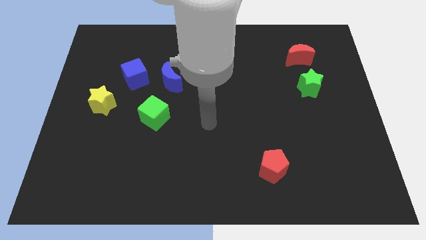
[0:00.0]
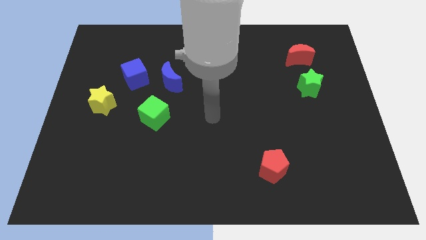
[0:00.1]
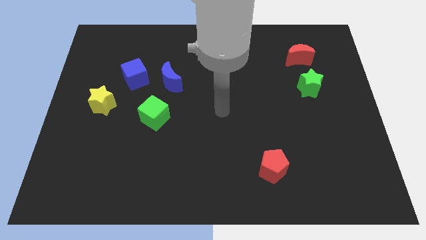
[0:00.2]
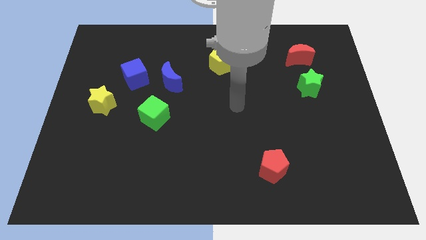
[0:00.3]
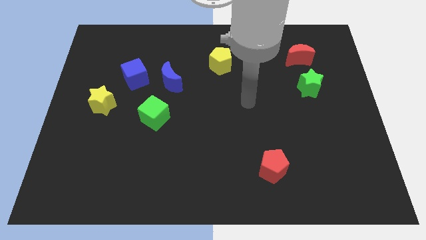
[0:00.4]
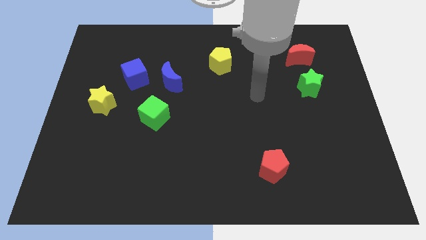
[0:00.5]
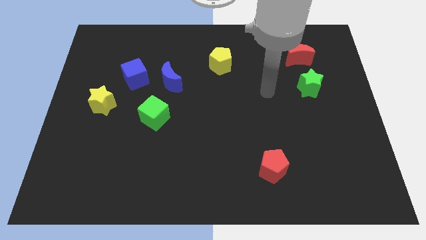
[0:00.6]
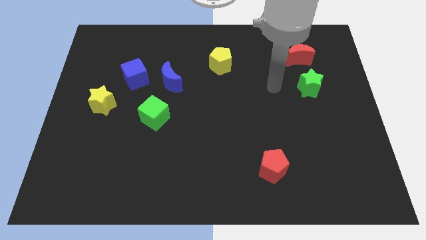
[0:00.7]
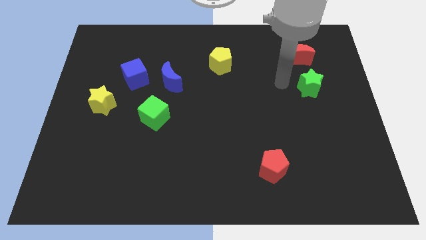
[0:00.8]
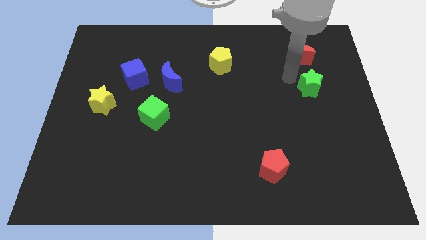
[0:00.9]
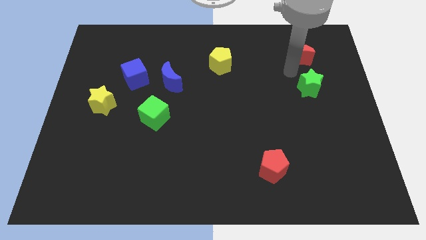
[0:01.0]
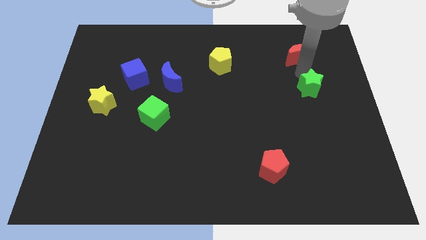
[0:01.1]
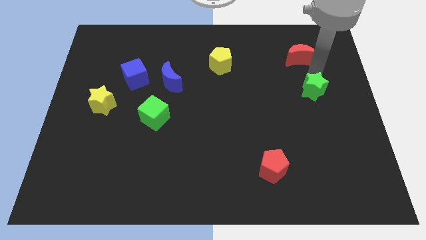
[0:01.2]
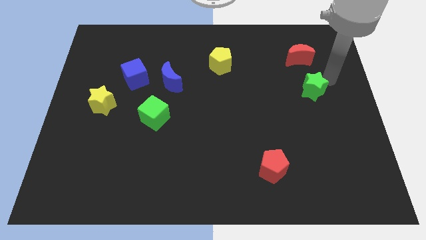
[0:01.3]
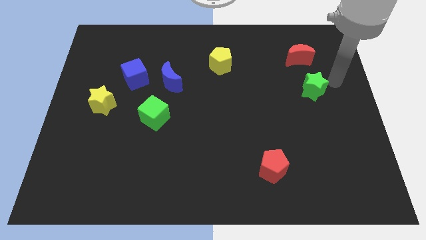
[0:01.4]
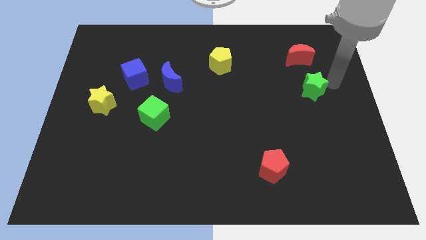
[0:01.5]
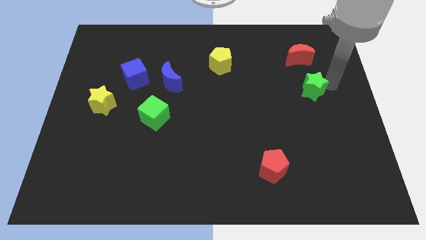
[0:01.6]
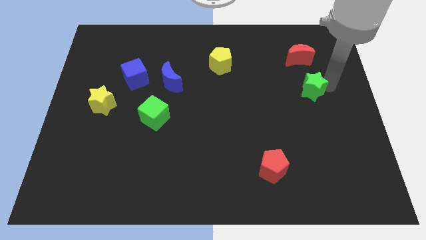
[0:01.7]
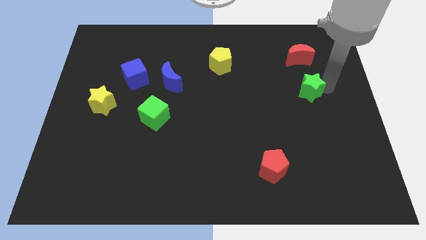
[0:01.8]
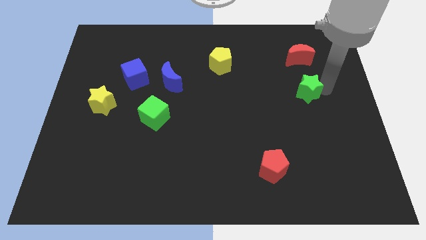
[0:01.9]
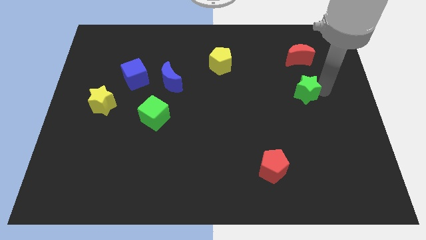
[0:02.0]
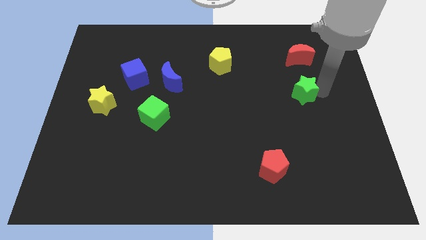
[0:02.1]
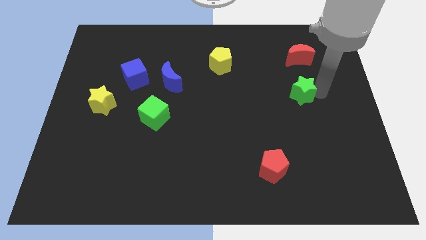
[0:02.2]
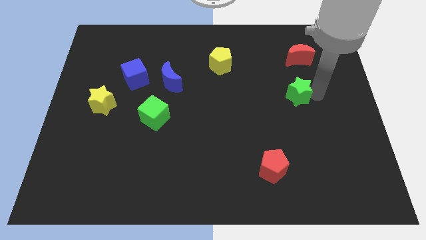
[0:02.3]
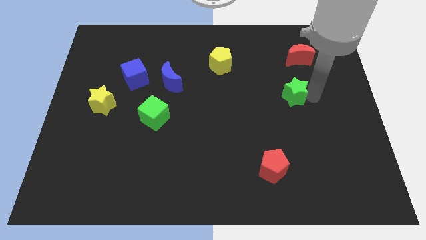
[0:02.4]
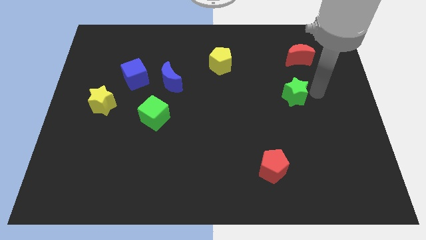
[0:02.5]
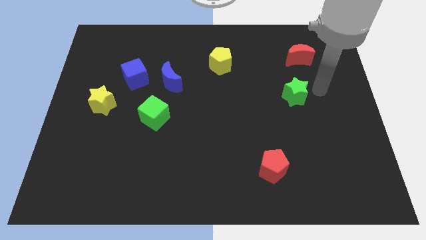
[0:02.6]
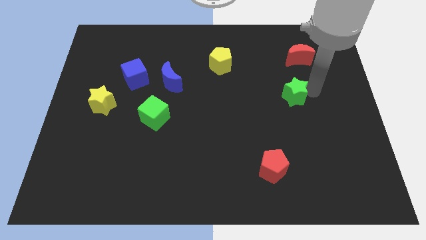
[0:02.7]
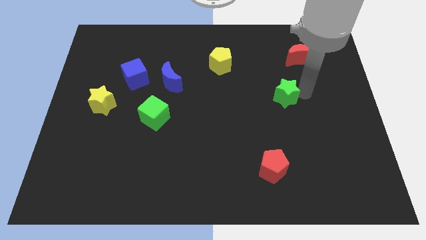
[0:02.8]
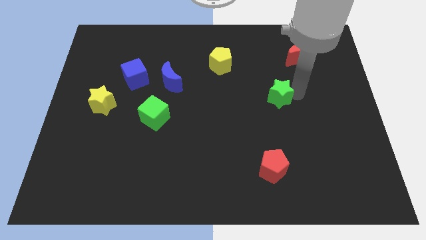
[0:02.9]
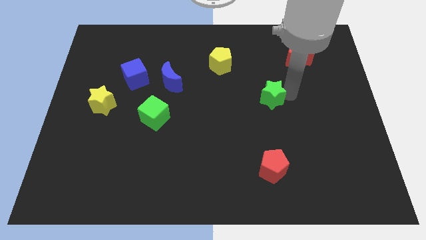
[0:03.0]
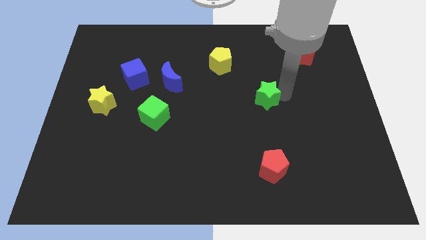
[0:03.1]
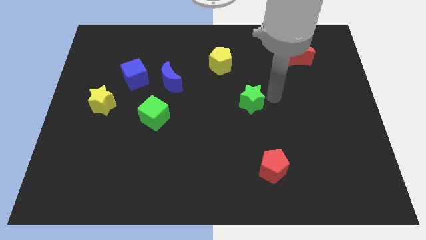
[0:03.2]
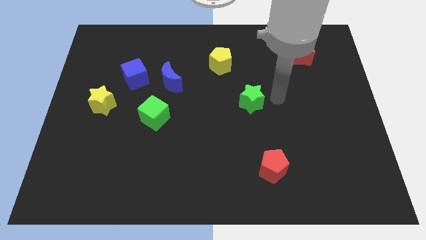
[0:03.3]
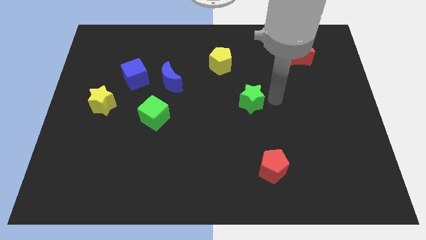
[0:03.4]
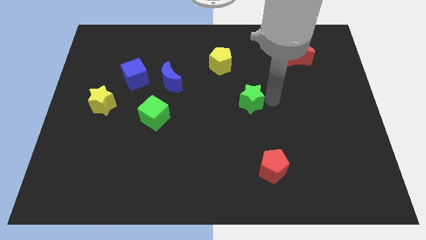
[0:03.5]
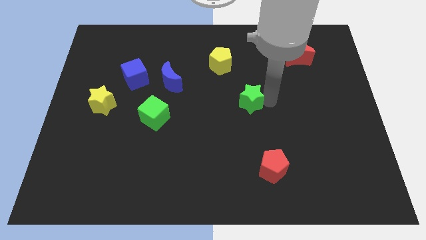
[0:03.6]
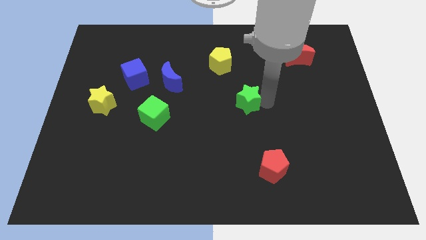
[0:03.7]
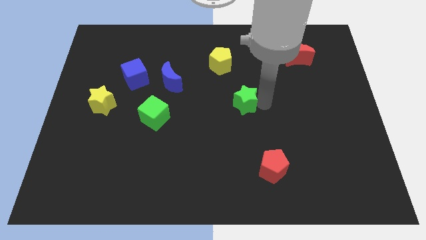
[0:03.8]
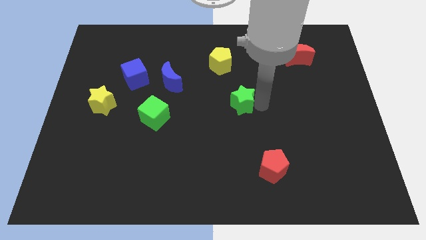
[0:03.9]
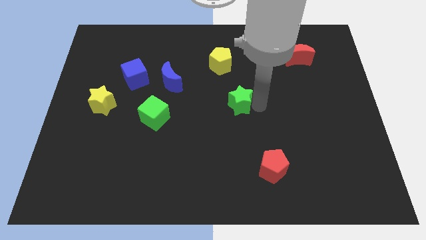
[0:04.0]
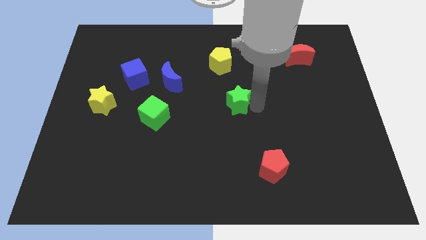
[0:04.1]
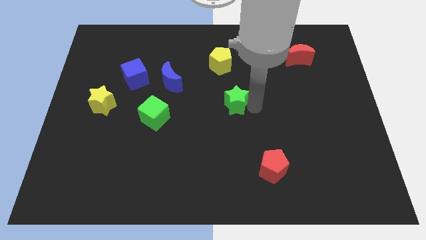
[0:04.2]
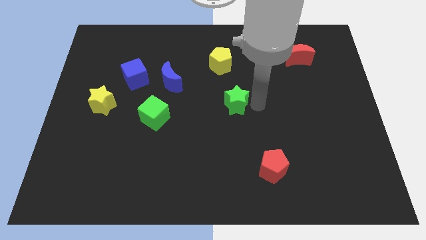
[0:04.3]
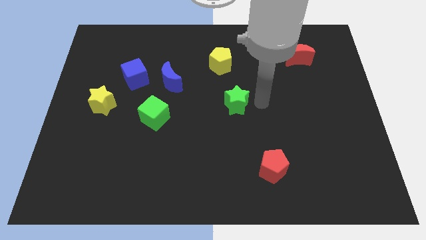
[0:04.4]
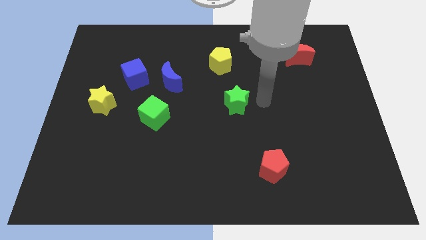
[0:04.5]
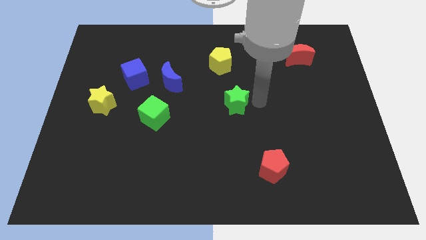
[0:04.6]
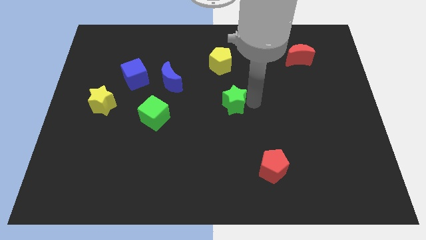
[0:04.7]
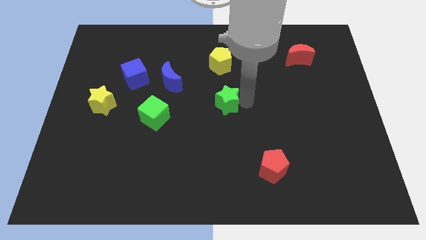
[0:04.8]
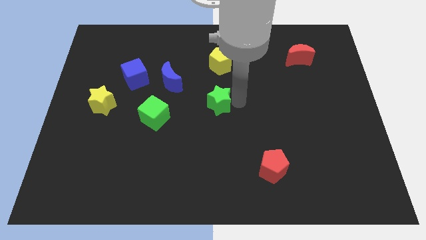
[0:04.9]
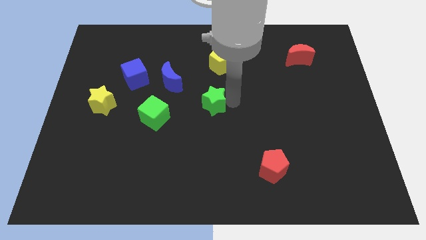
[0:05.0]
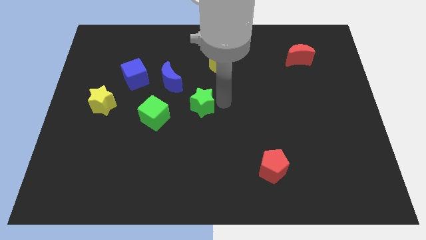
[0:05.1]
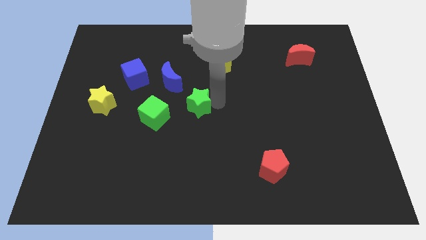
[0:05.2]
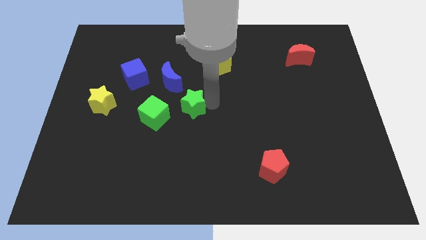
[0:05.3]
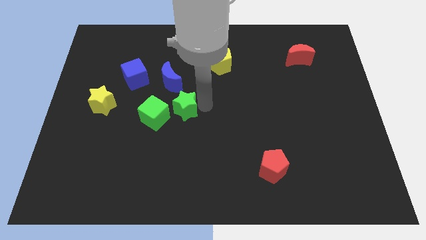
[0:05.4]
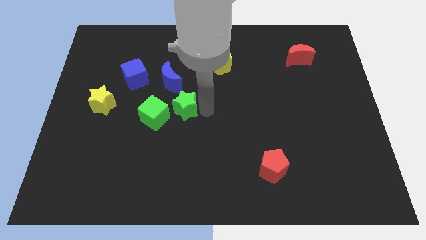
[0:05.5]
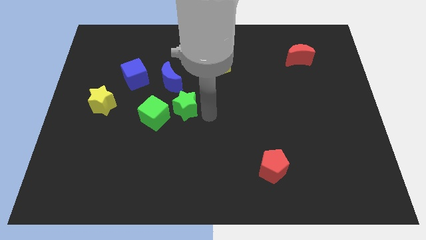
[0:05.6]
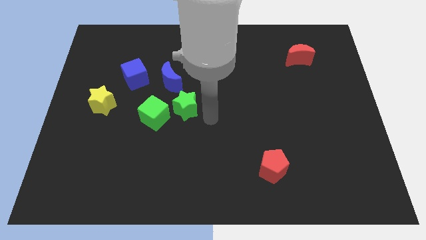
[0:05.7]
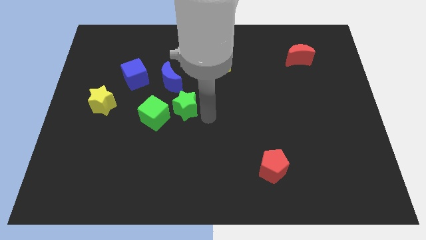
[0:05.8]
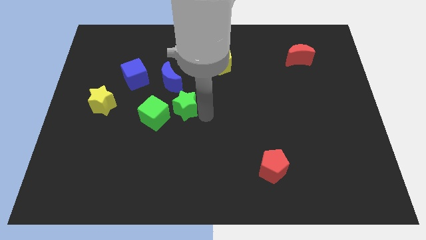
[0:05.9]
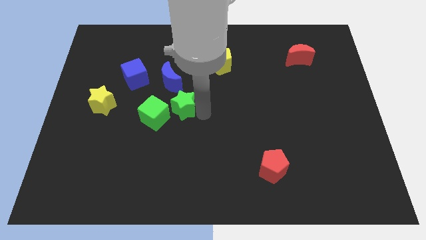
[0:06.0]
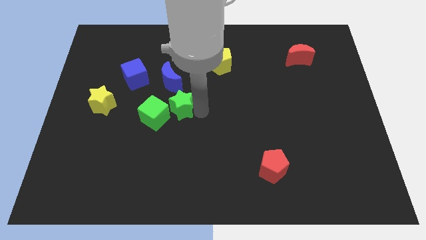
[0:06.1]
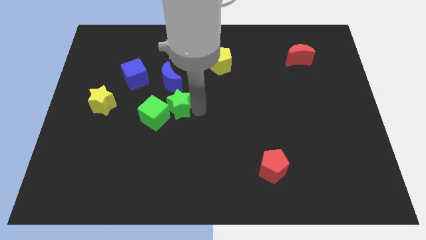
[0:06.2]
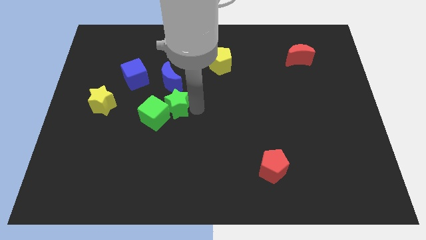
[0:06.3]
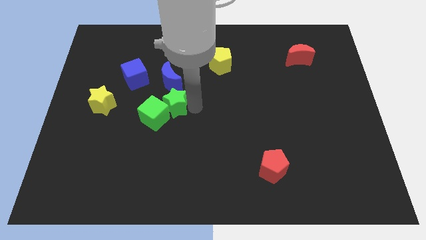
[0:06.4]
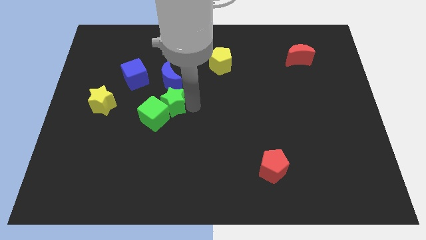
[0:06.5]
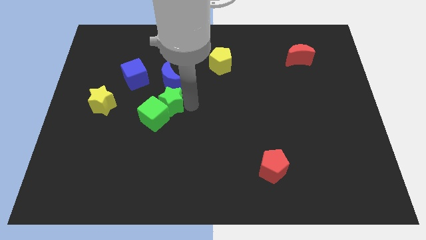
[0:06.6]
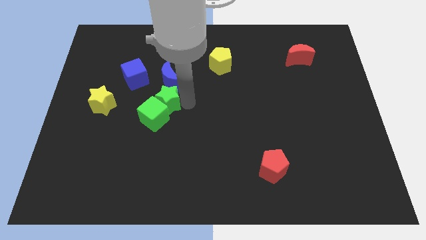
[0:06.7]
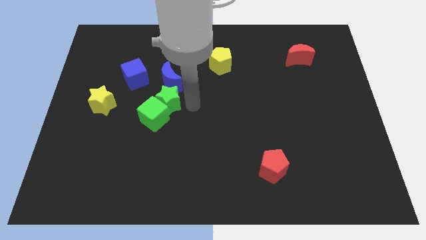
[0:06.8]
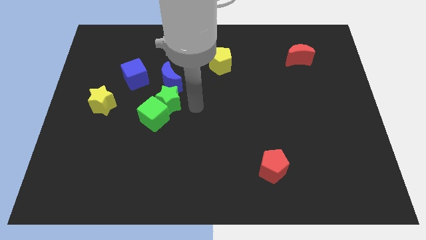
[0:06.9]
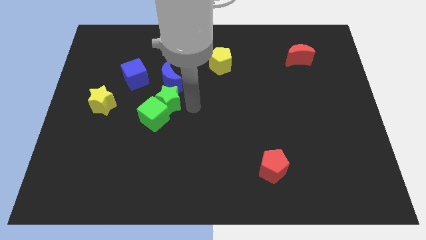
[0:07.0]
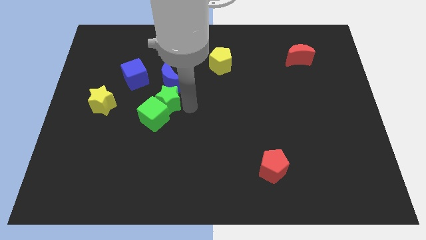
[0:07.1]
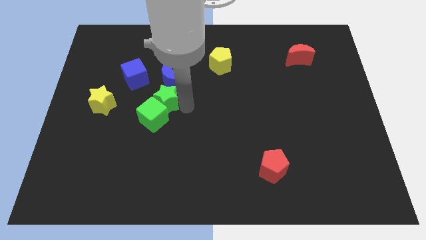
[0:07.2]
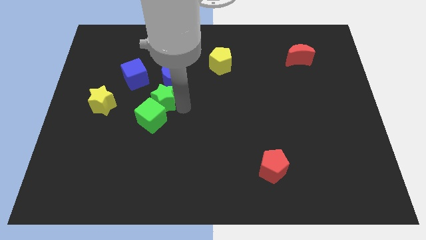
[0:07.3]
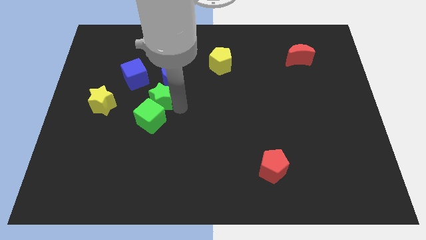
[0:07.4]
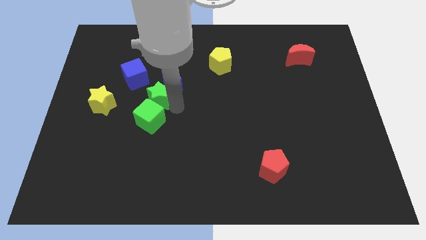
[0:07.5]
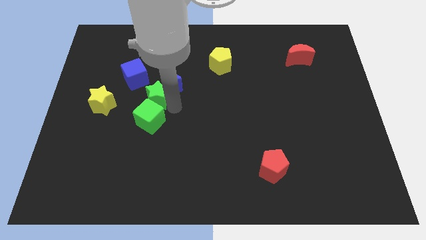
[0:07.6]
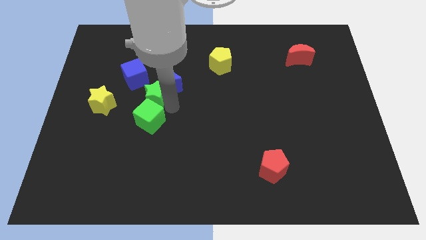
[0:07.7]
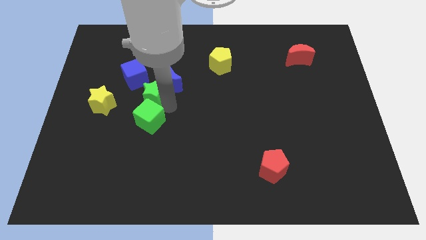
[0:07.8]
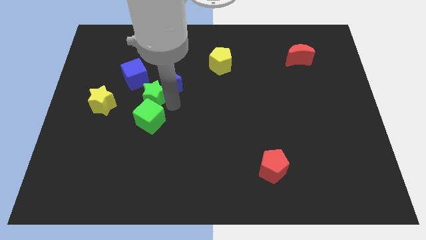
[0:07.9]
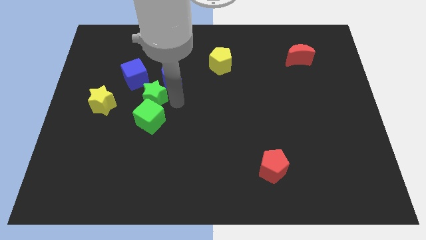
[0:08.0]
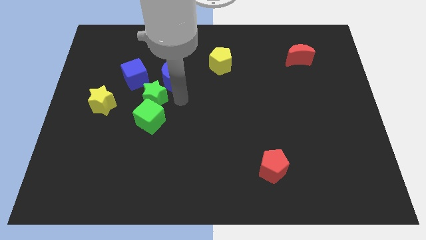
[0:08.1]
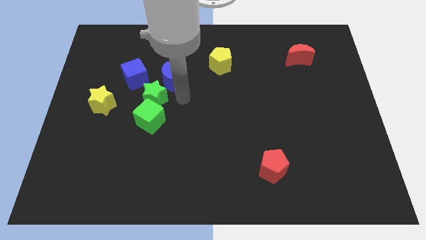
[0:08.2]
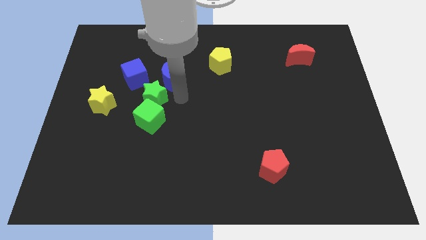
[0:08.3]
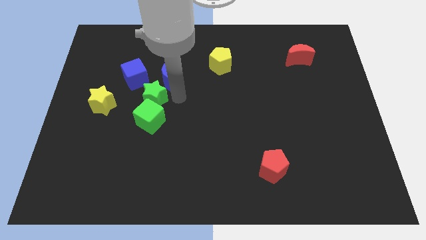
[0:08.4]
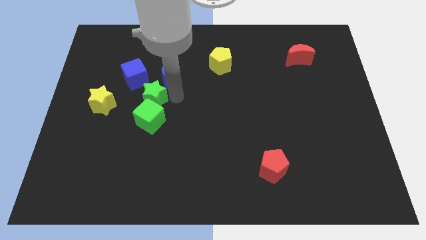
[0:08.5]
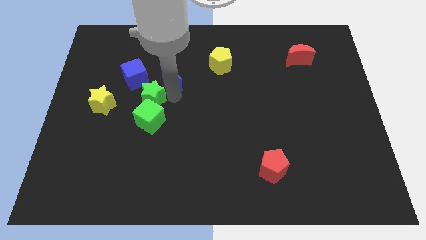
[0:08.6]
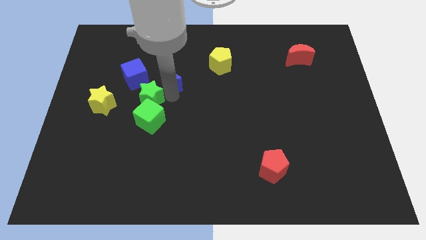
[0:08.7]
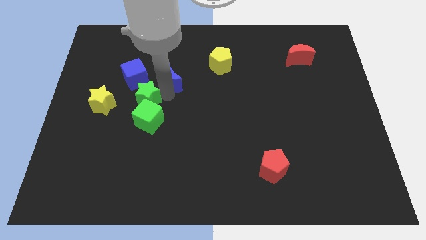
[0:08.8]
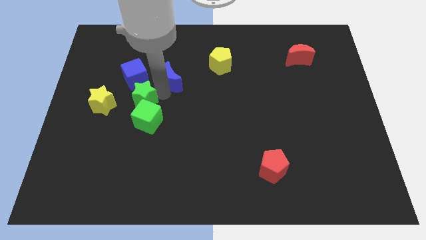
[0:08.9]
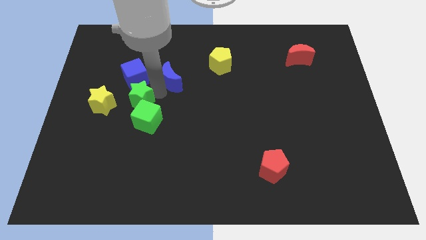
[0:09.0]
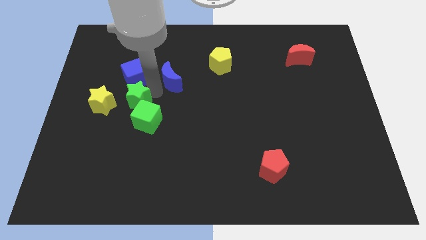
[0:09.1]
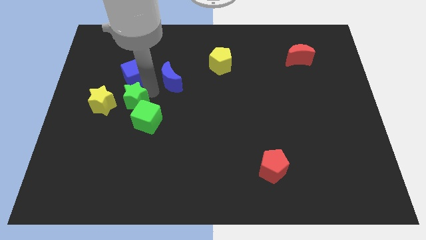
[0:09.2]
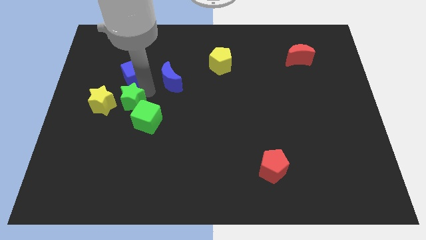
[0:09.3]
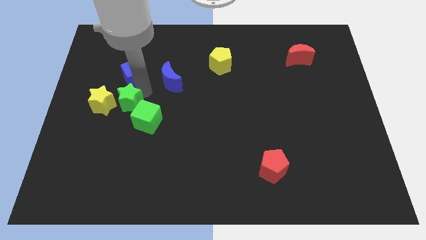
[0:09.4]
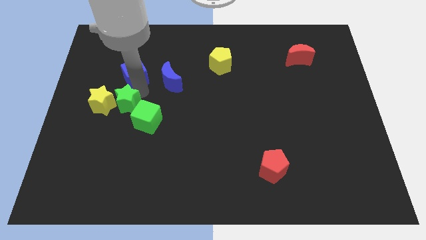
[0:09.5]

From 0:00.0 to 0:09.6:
slide the green star next to the yellow star
